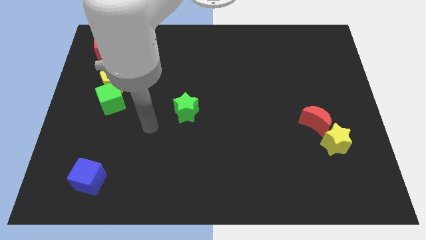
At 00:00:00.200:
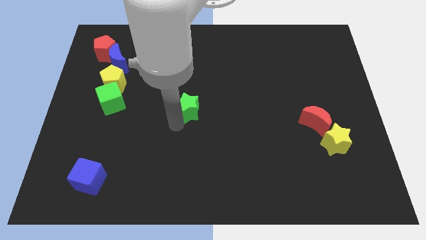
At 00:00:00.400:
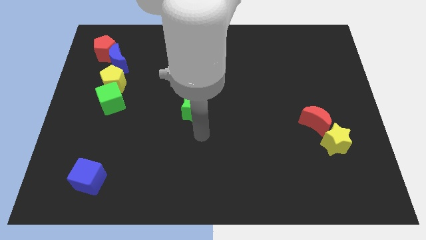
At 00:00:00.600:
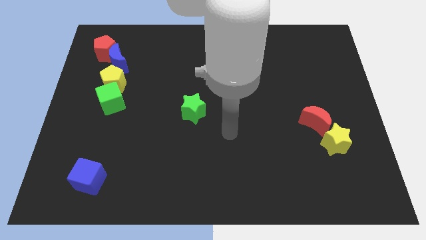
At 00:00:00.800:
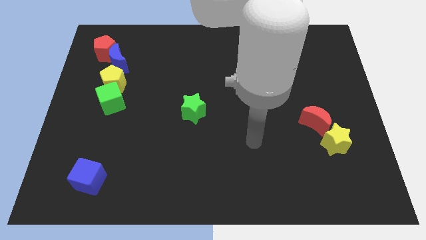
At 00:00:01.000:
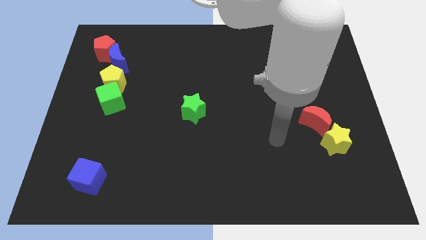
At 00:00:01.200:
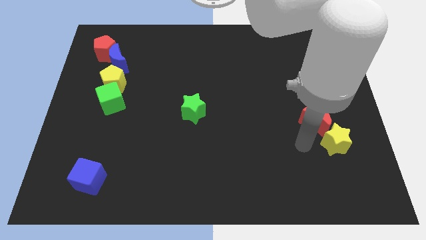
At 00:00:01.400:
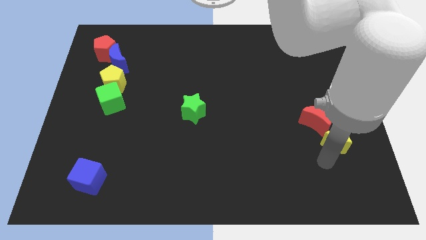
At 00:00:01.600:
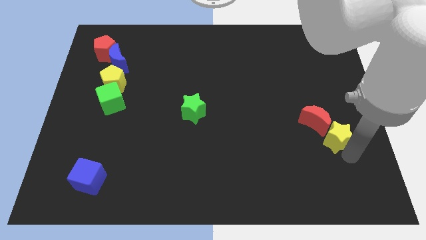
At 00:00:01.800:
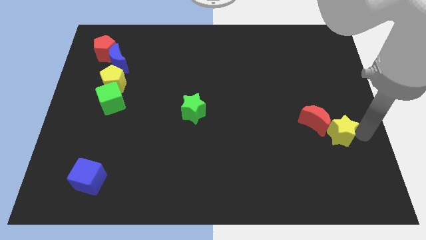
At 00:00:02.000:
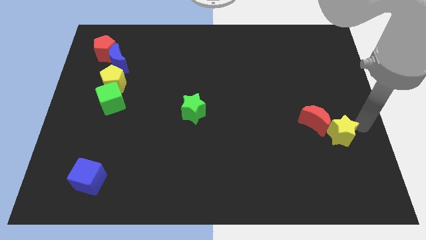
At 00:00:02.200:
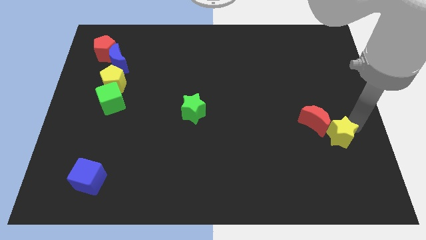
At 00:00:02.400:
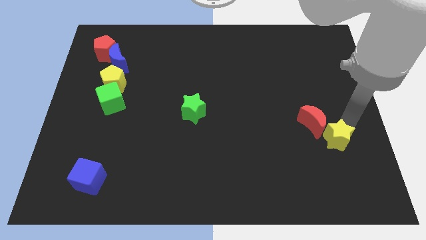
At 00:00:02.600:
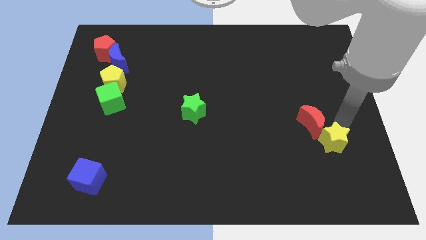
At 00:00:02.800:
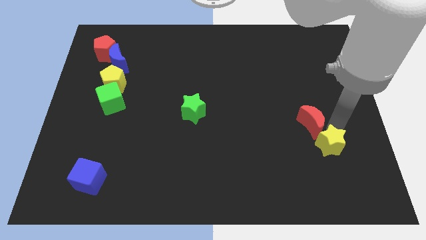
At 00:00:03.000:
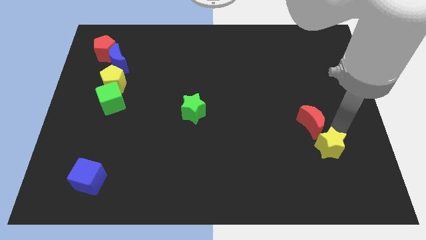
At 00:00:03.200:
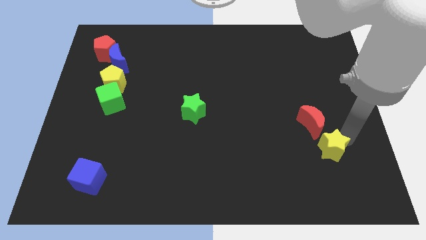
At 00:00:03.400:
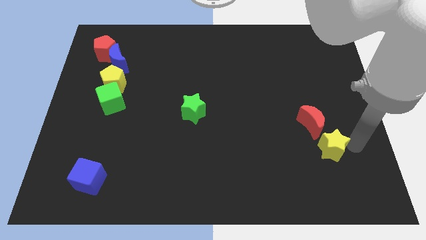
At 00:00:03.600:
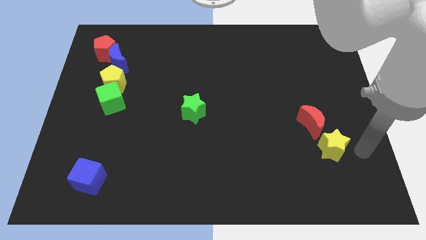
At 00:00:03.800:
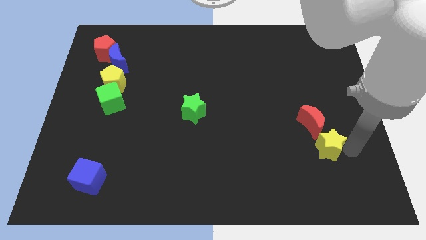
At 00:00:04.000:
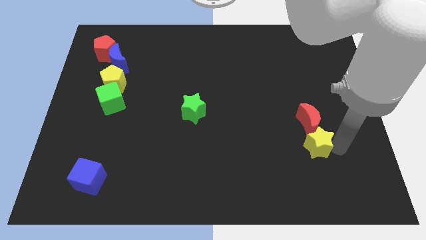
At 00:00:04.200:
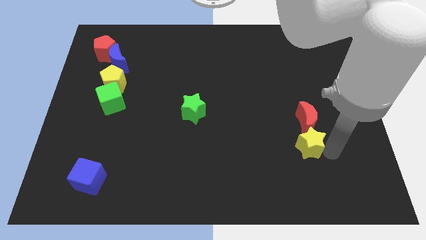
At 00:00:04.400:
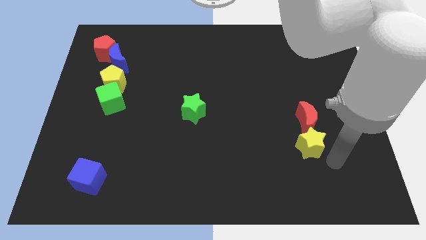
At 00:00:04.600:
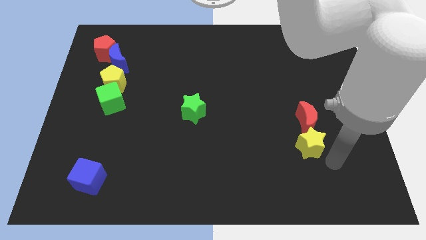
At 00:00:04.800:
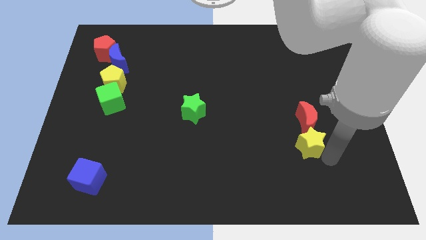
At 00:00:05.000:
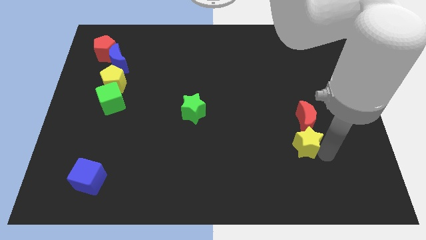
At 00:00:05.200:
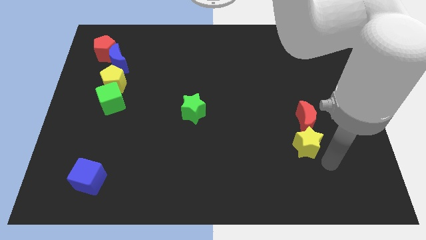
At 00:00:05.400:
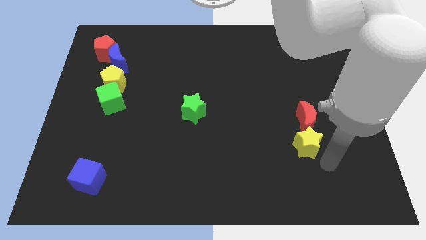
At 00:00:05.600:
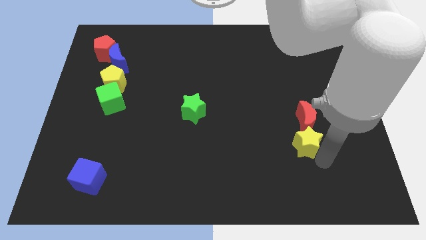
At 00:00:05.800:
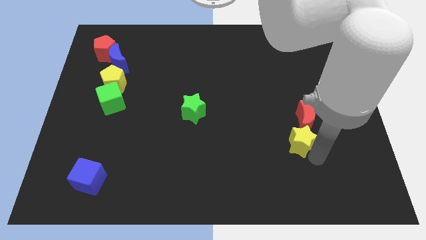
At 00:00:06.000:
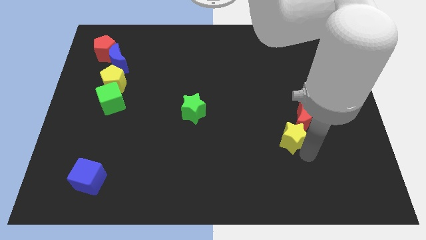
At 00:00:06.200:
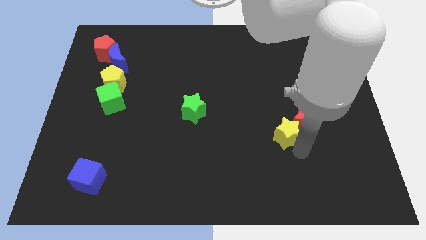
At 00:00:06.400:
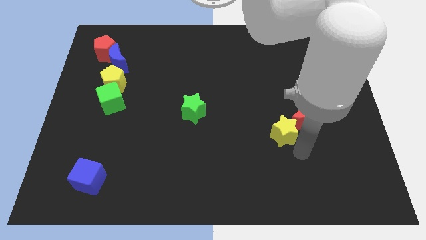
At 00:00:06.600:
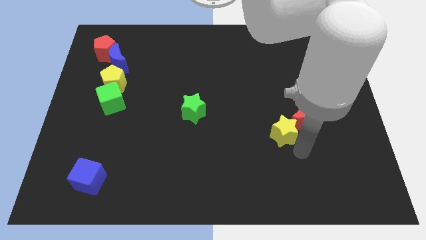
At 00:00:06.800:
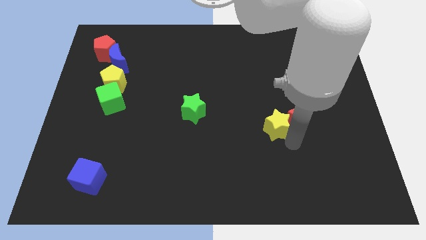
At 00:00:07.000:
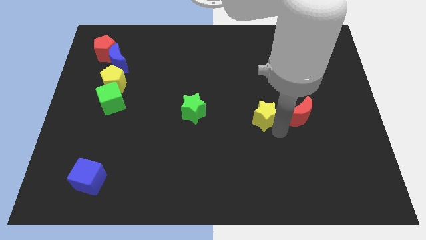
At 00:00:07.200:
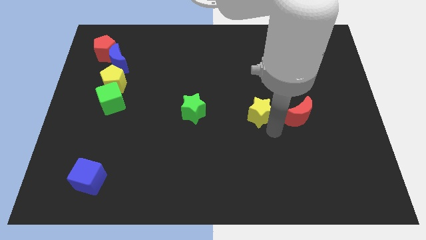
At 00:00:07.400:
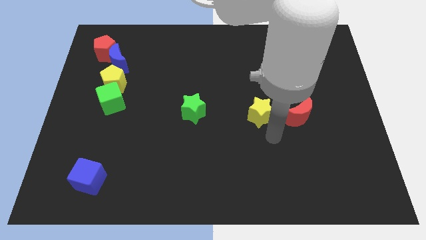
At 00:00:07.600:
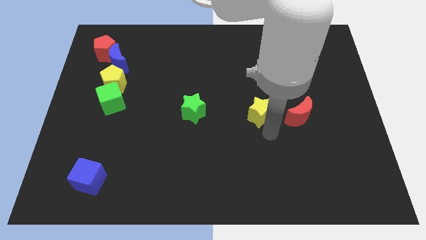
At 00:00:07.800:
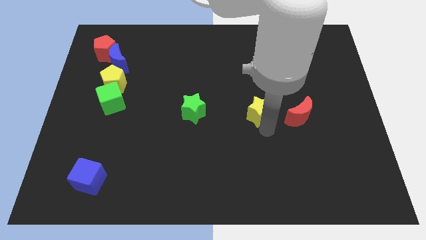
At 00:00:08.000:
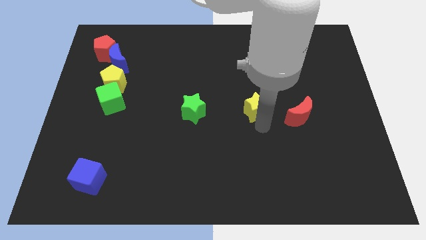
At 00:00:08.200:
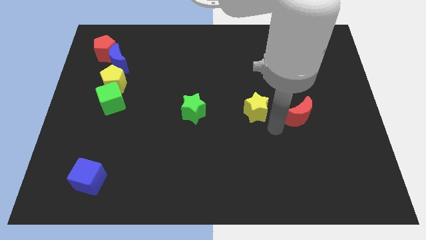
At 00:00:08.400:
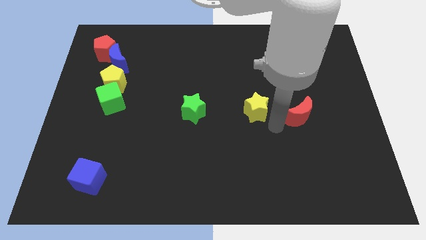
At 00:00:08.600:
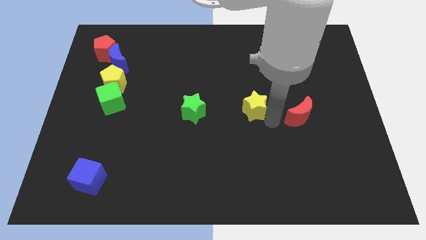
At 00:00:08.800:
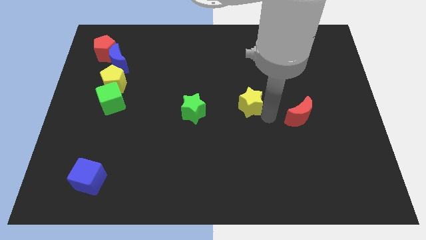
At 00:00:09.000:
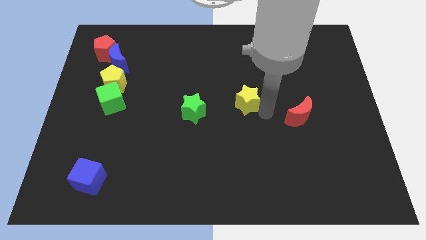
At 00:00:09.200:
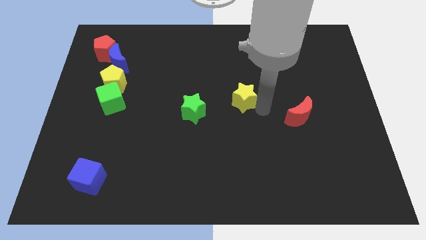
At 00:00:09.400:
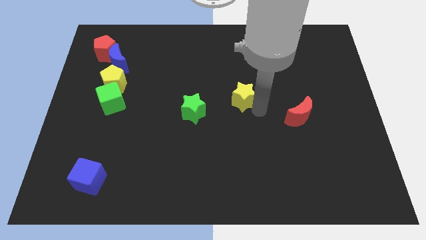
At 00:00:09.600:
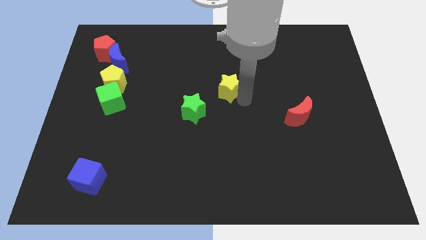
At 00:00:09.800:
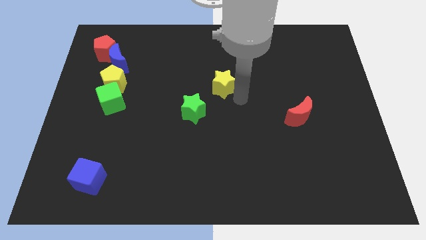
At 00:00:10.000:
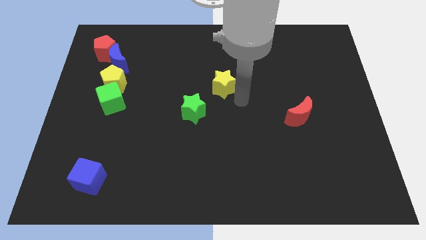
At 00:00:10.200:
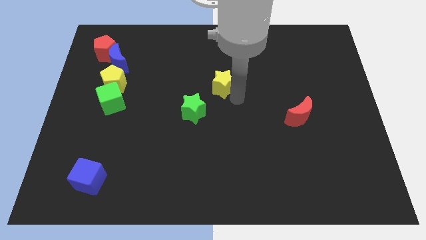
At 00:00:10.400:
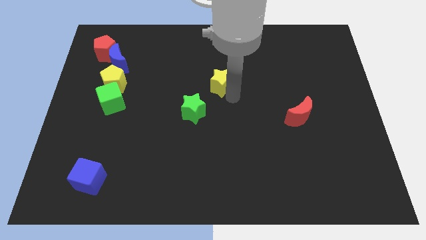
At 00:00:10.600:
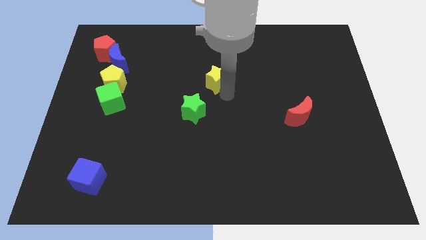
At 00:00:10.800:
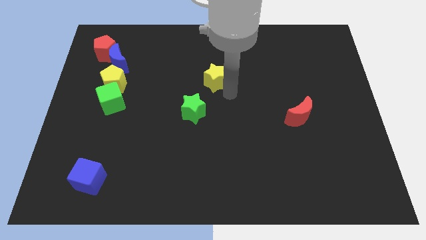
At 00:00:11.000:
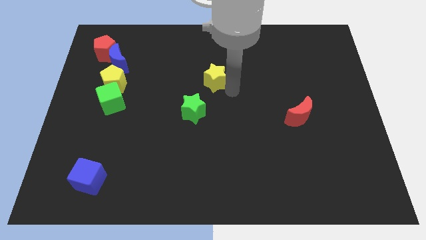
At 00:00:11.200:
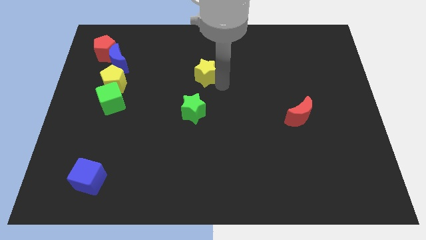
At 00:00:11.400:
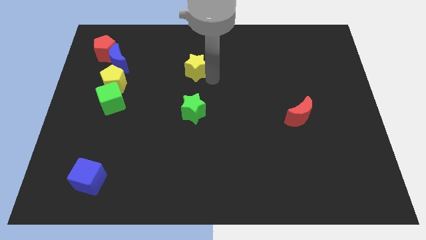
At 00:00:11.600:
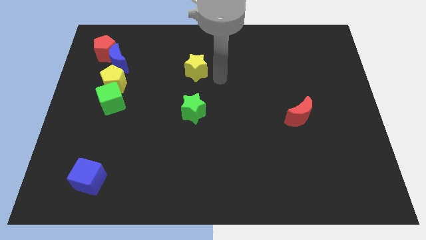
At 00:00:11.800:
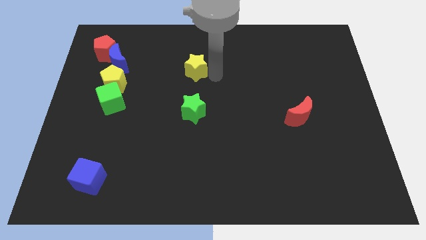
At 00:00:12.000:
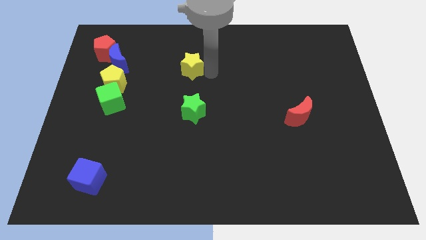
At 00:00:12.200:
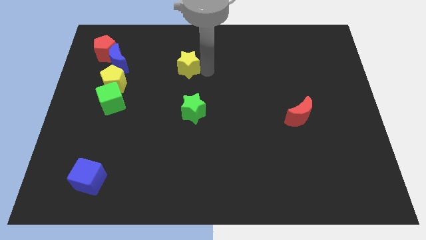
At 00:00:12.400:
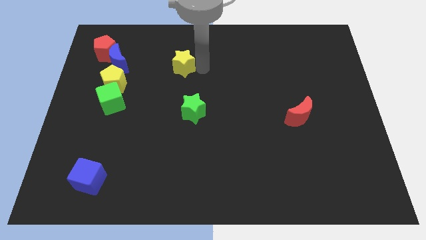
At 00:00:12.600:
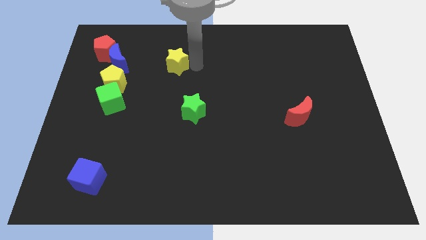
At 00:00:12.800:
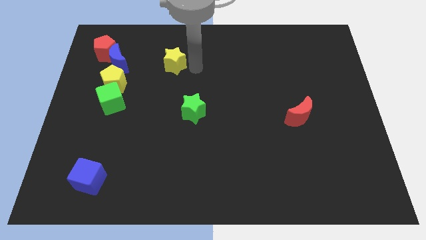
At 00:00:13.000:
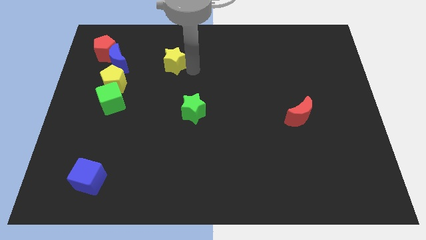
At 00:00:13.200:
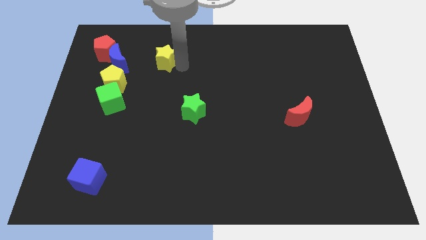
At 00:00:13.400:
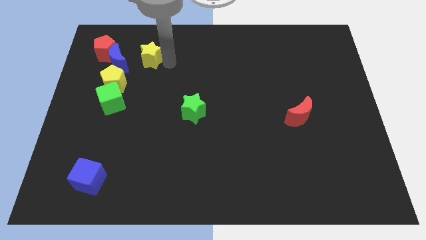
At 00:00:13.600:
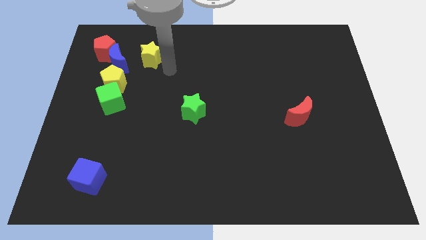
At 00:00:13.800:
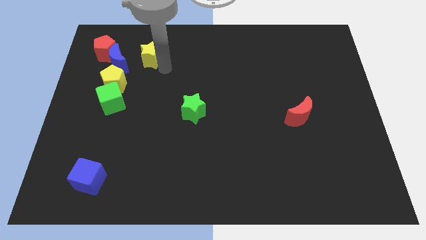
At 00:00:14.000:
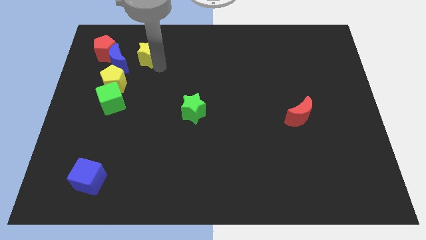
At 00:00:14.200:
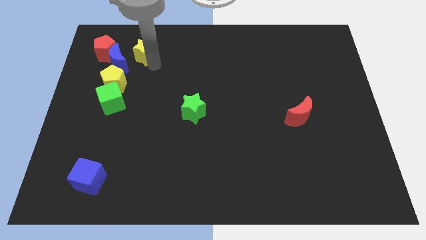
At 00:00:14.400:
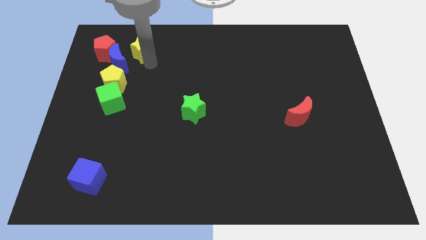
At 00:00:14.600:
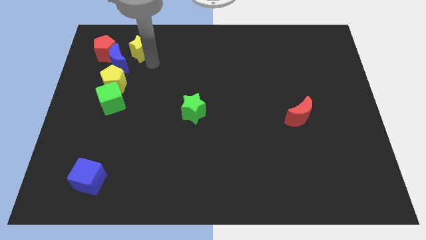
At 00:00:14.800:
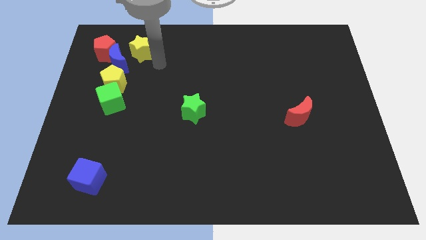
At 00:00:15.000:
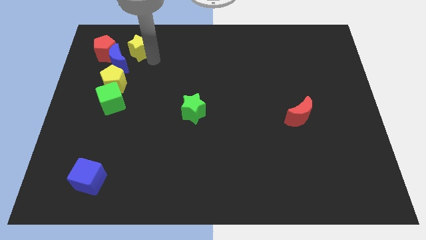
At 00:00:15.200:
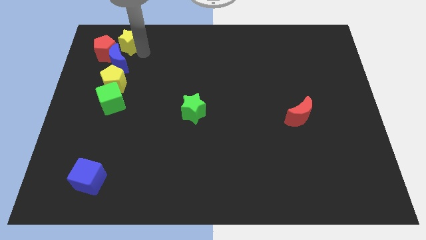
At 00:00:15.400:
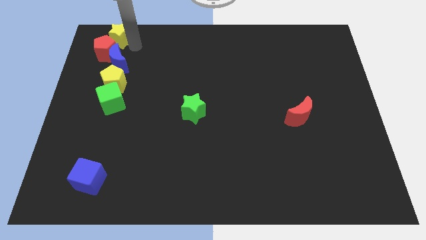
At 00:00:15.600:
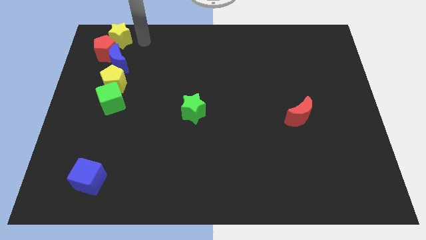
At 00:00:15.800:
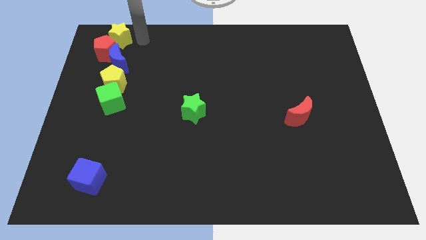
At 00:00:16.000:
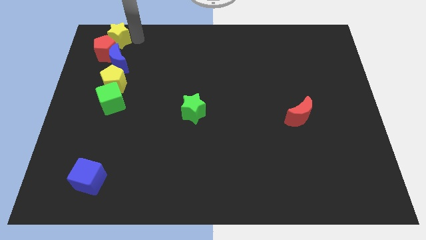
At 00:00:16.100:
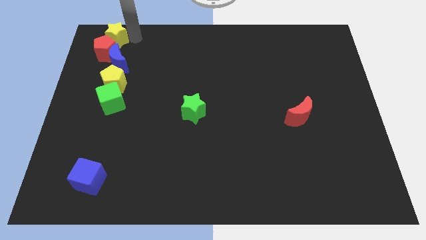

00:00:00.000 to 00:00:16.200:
move the yellow star to the top left
